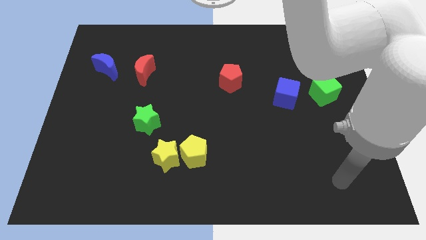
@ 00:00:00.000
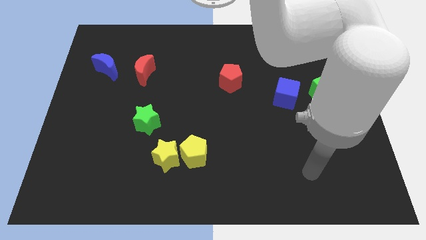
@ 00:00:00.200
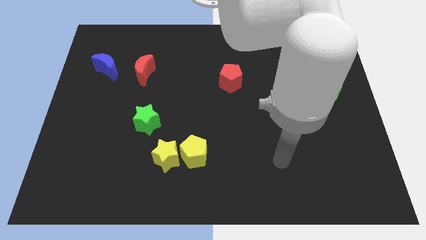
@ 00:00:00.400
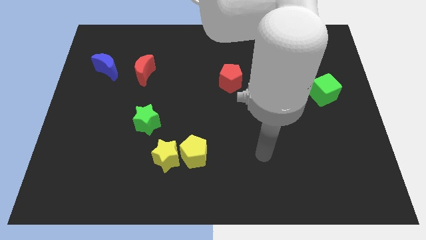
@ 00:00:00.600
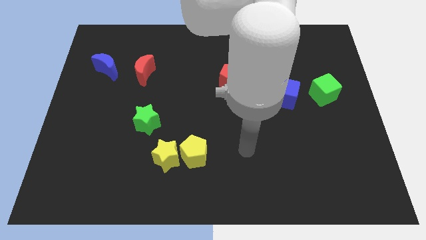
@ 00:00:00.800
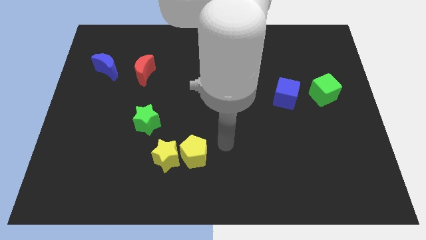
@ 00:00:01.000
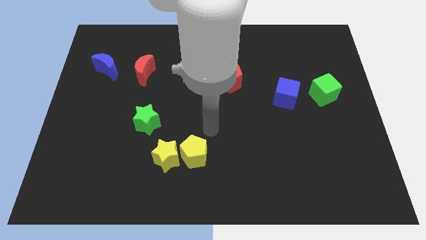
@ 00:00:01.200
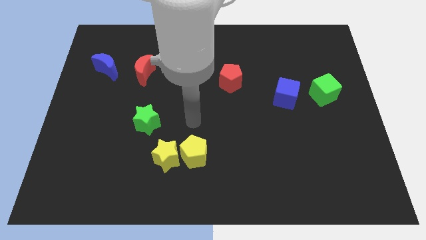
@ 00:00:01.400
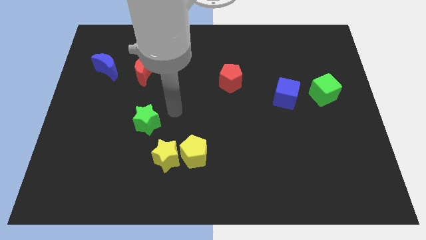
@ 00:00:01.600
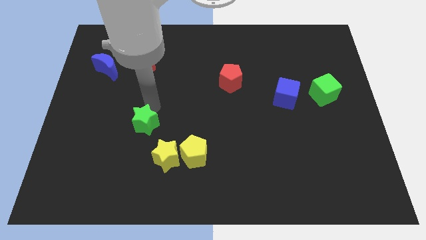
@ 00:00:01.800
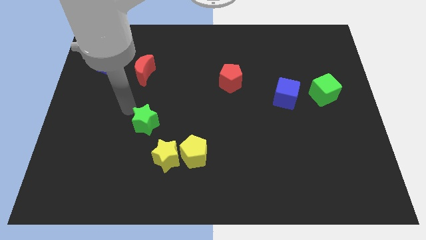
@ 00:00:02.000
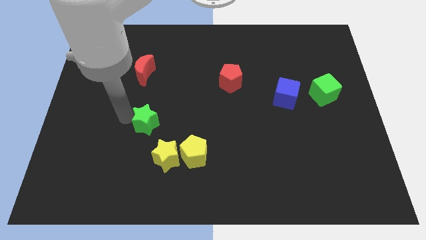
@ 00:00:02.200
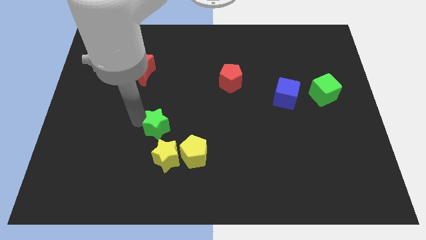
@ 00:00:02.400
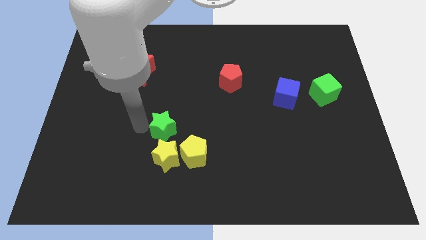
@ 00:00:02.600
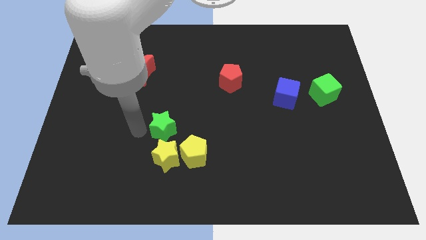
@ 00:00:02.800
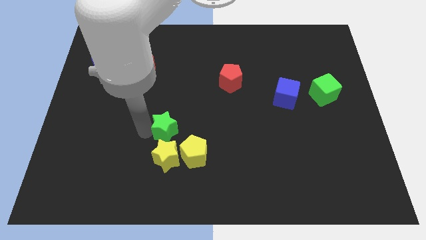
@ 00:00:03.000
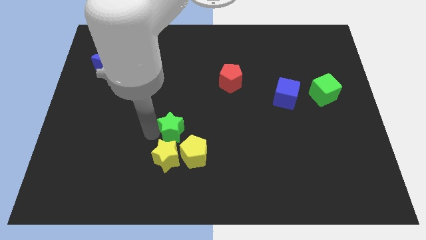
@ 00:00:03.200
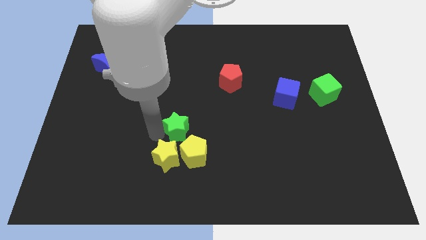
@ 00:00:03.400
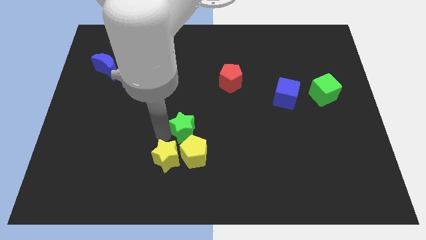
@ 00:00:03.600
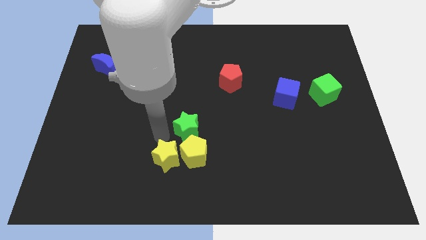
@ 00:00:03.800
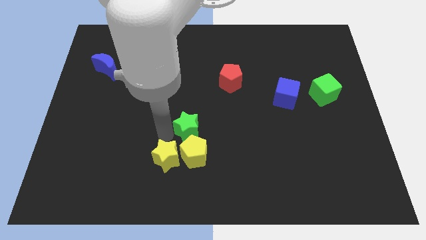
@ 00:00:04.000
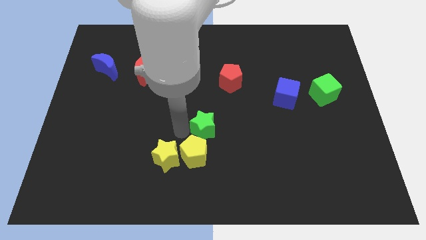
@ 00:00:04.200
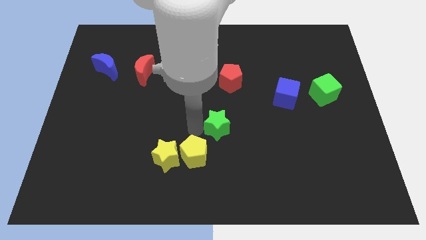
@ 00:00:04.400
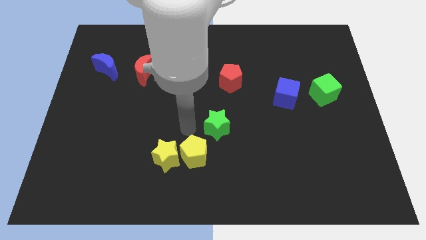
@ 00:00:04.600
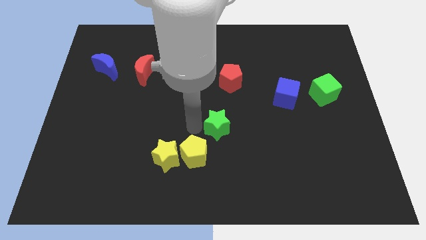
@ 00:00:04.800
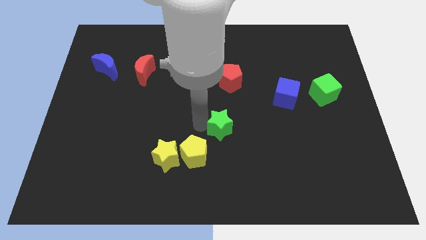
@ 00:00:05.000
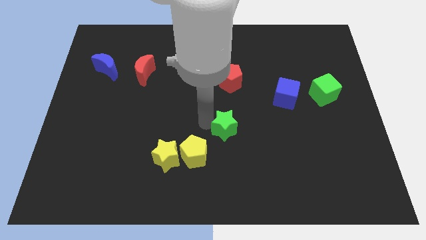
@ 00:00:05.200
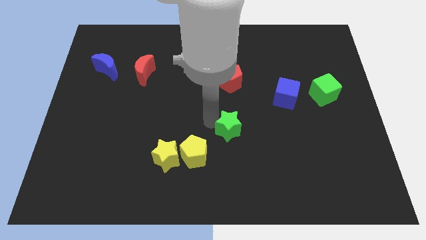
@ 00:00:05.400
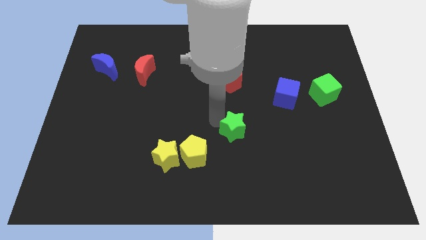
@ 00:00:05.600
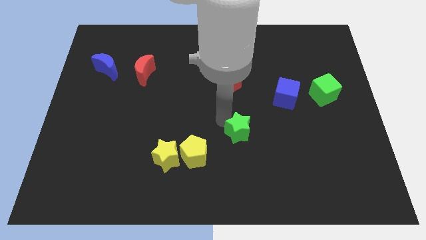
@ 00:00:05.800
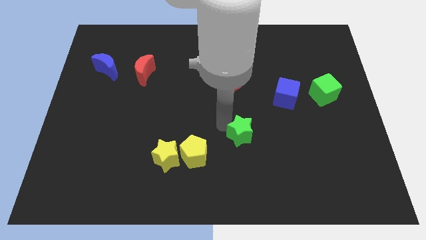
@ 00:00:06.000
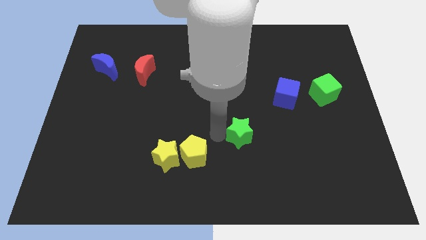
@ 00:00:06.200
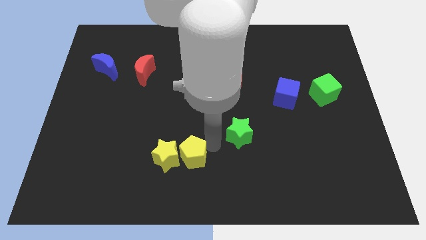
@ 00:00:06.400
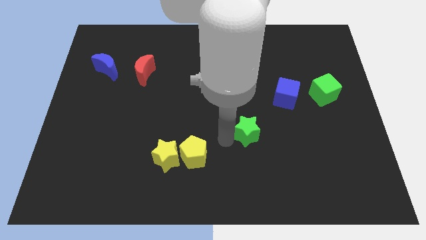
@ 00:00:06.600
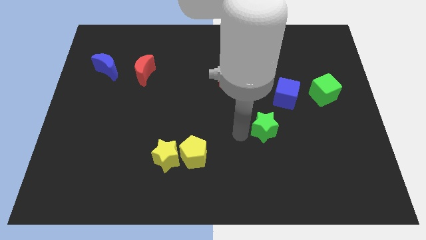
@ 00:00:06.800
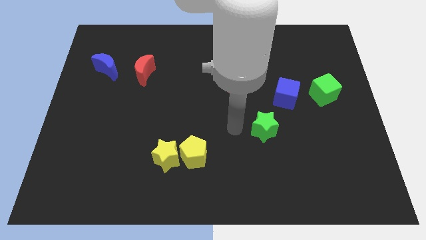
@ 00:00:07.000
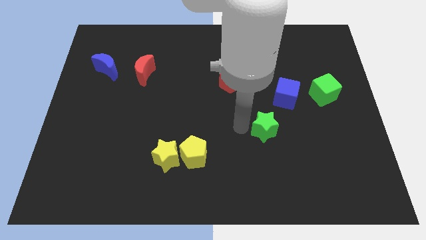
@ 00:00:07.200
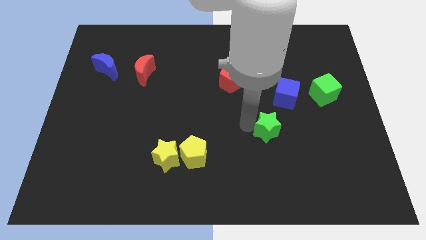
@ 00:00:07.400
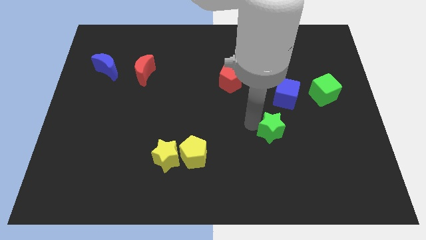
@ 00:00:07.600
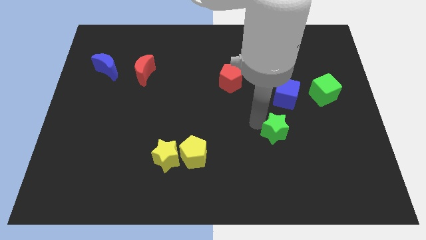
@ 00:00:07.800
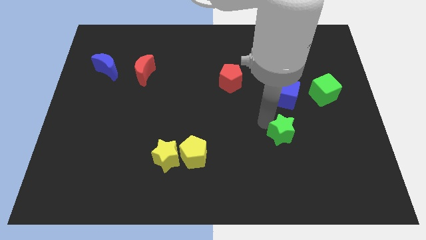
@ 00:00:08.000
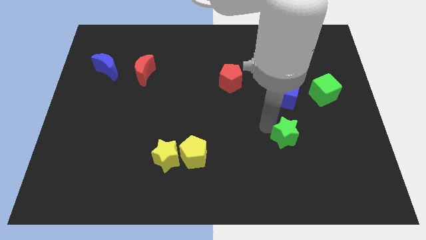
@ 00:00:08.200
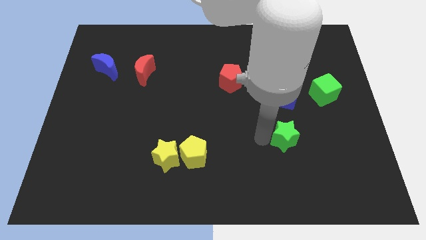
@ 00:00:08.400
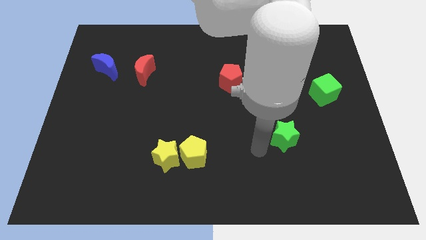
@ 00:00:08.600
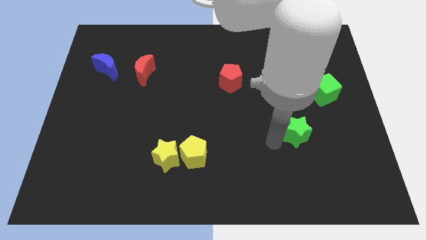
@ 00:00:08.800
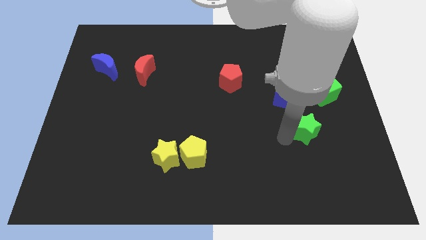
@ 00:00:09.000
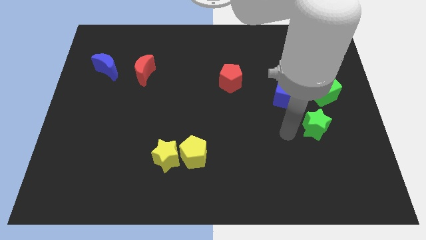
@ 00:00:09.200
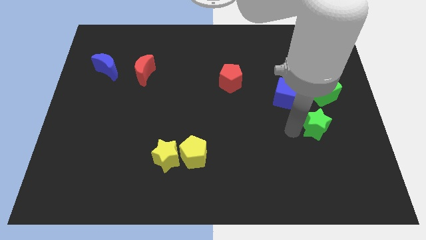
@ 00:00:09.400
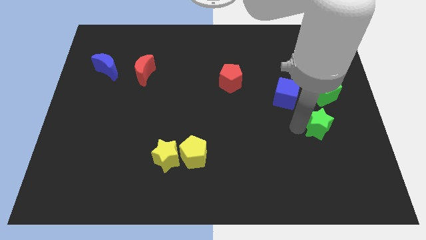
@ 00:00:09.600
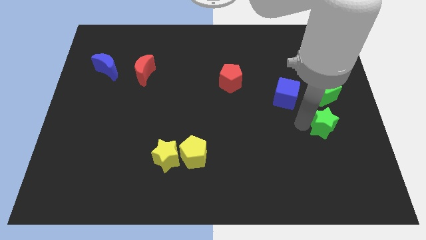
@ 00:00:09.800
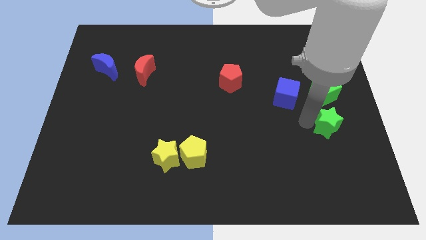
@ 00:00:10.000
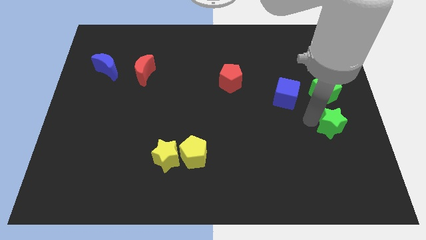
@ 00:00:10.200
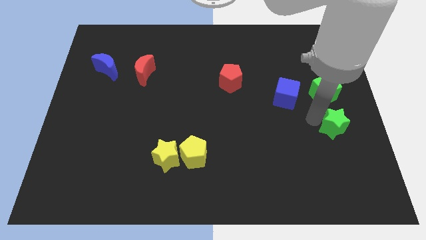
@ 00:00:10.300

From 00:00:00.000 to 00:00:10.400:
slide the green star to the right side of the board

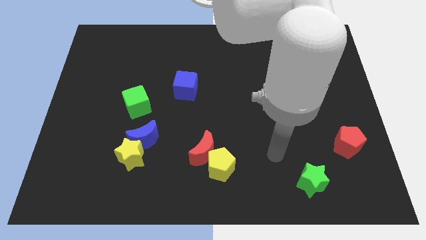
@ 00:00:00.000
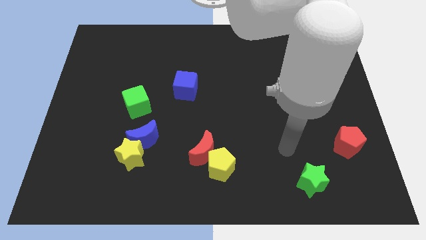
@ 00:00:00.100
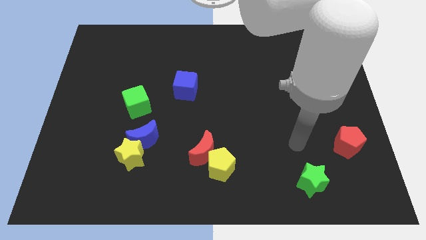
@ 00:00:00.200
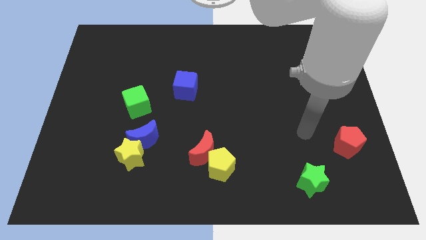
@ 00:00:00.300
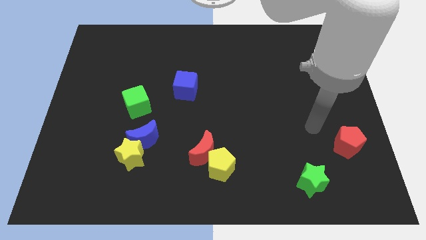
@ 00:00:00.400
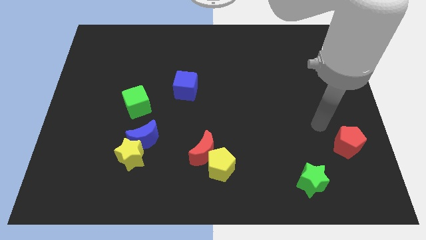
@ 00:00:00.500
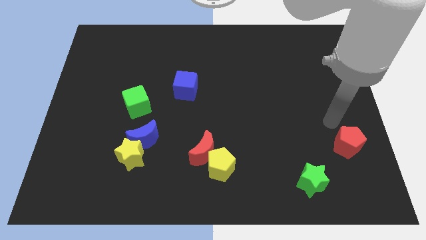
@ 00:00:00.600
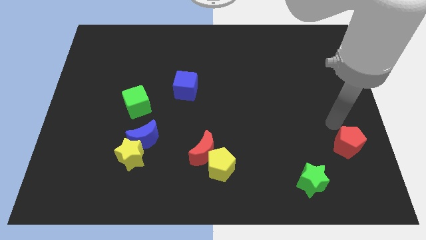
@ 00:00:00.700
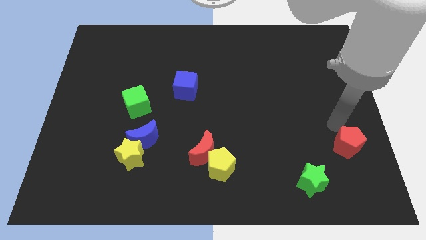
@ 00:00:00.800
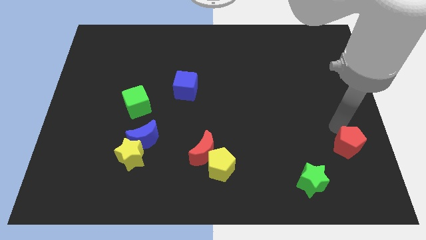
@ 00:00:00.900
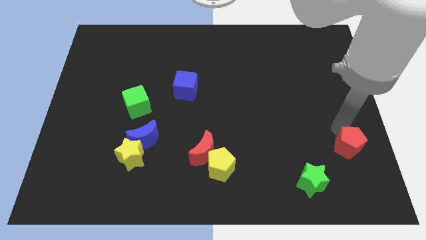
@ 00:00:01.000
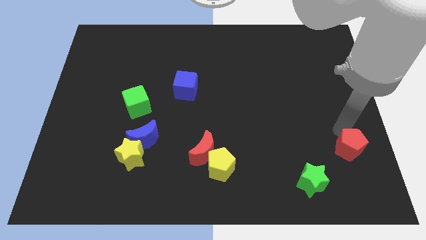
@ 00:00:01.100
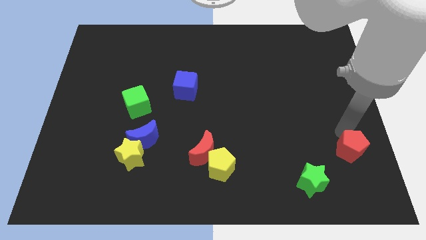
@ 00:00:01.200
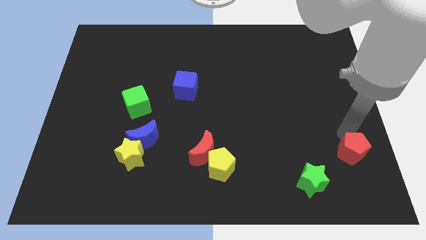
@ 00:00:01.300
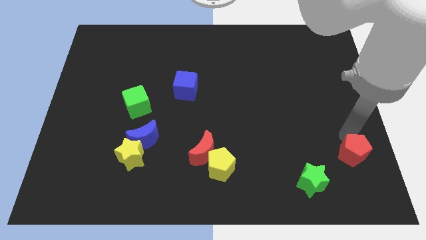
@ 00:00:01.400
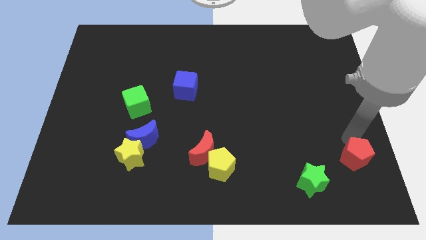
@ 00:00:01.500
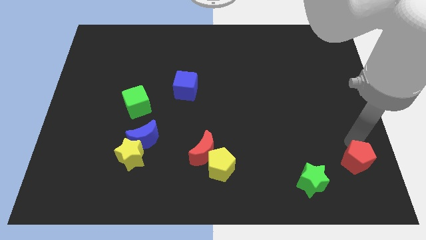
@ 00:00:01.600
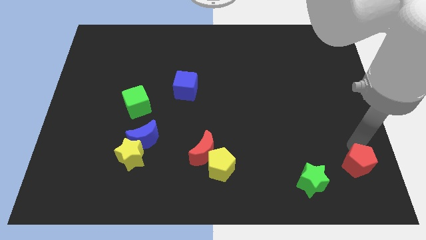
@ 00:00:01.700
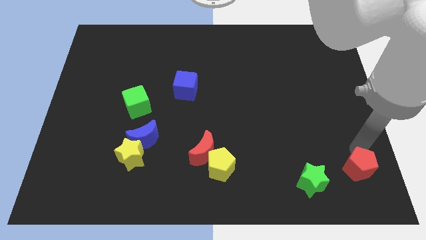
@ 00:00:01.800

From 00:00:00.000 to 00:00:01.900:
push the red pentagon to the bottom right corner
